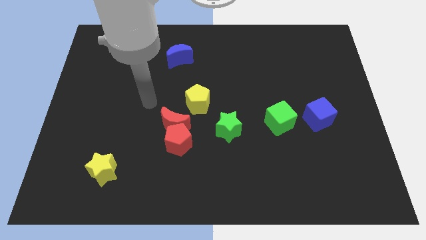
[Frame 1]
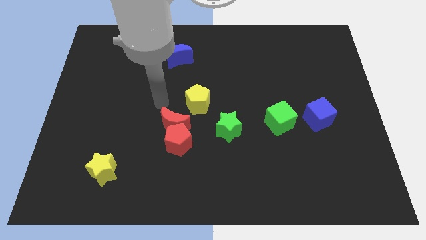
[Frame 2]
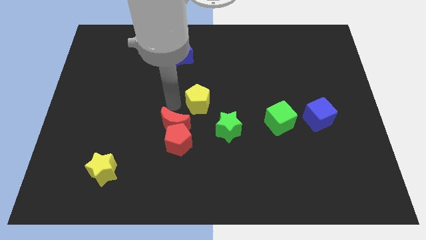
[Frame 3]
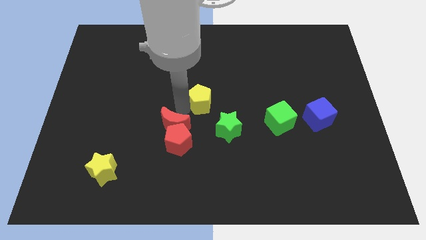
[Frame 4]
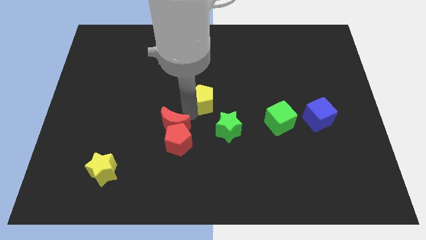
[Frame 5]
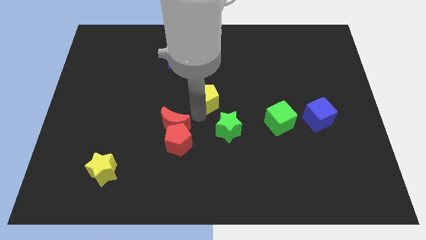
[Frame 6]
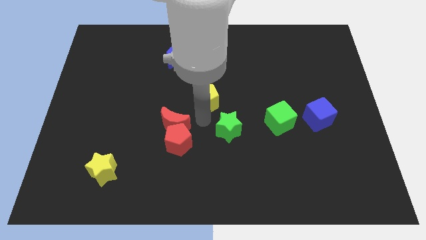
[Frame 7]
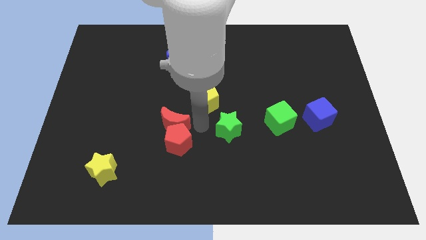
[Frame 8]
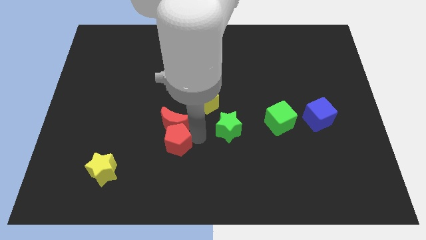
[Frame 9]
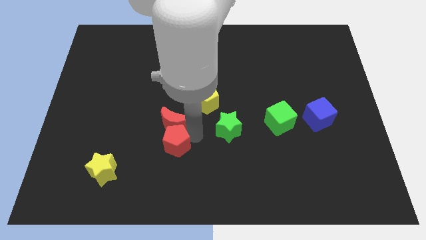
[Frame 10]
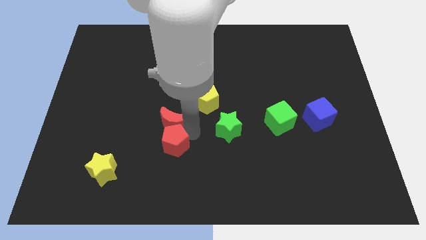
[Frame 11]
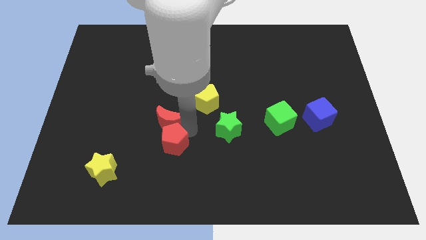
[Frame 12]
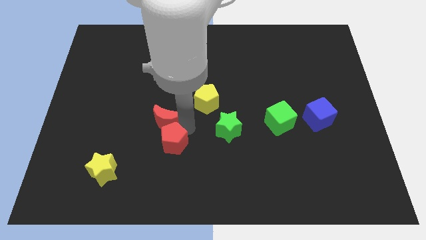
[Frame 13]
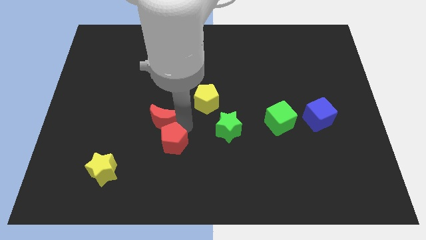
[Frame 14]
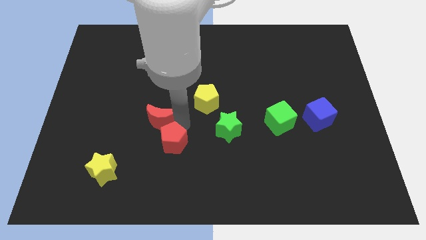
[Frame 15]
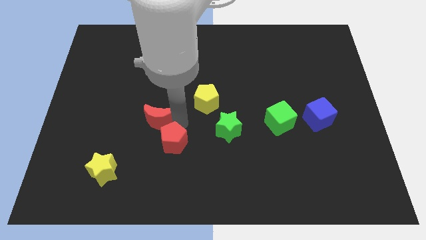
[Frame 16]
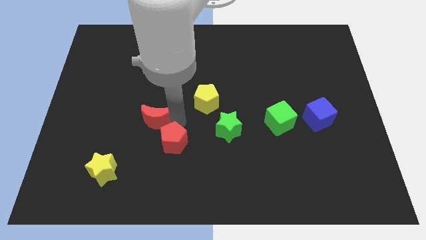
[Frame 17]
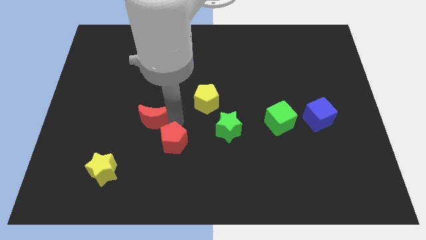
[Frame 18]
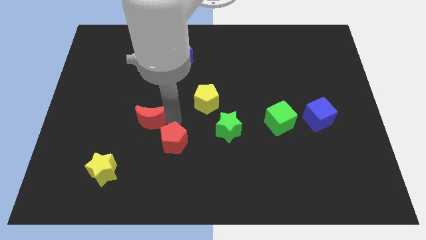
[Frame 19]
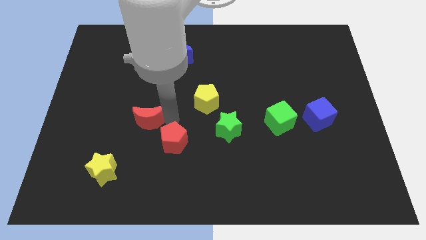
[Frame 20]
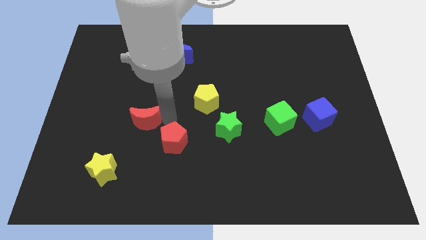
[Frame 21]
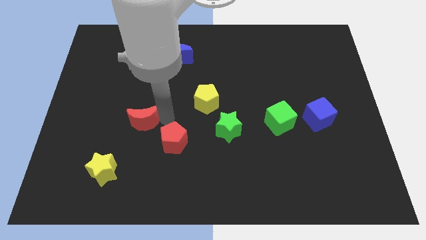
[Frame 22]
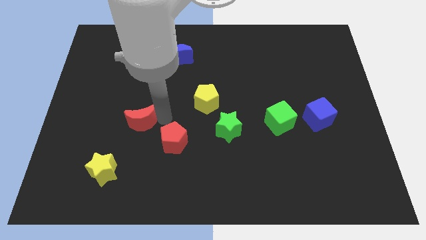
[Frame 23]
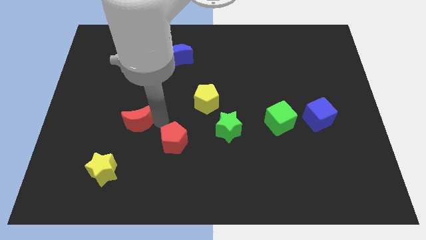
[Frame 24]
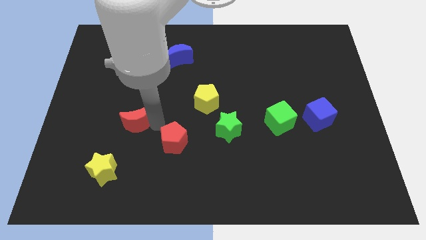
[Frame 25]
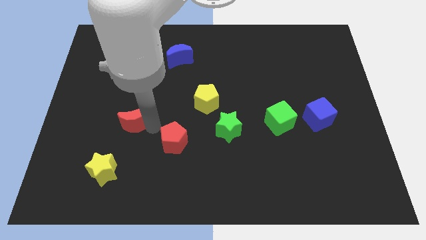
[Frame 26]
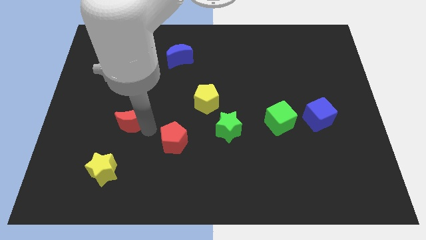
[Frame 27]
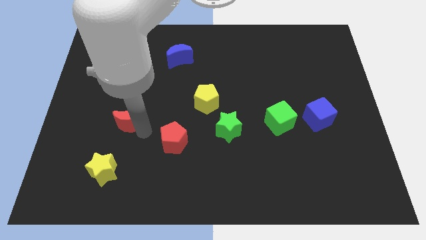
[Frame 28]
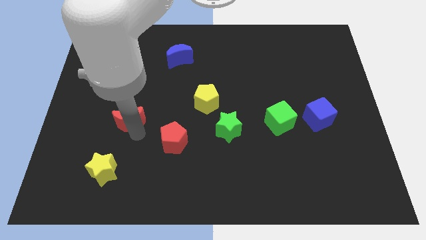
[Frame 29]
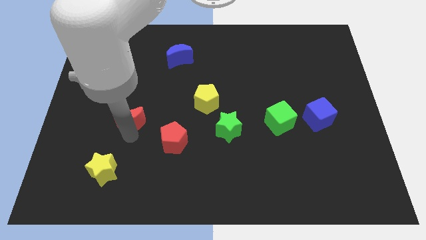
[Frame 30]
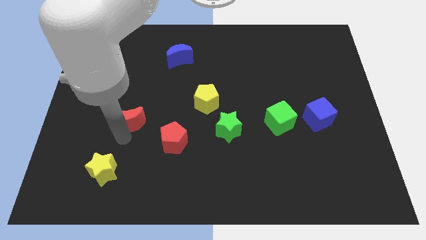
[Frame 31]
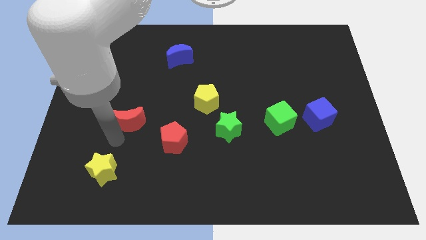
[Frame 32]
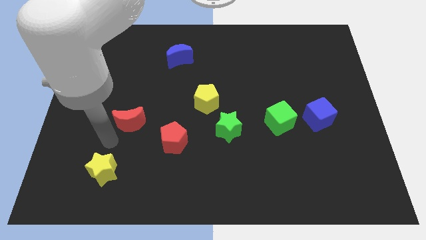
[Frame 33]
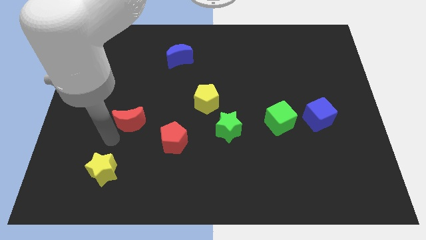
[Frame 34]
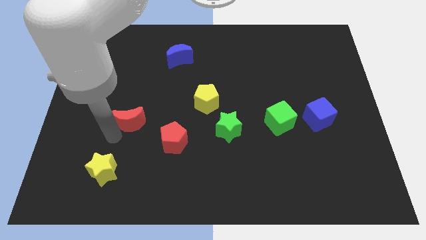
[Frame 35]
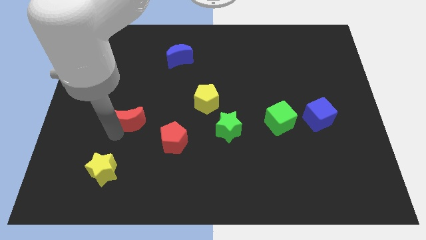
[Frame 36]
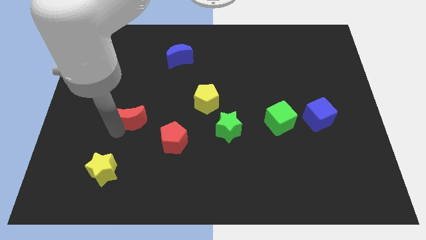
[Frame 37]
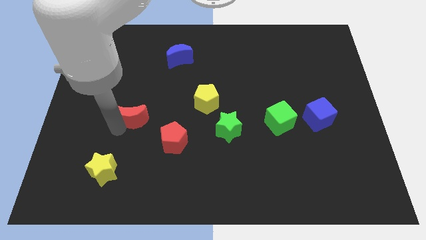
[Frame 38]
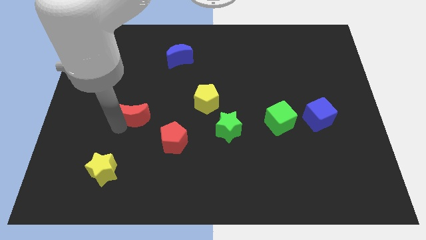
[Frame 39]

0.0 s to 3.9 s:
push the red moon a little bit up and to the left diagonally

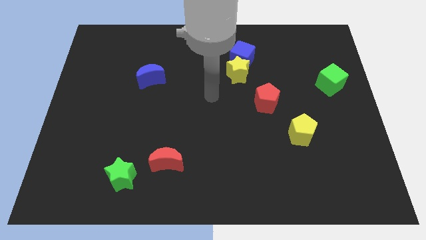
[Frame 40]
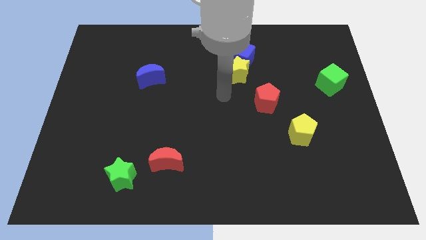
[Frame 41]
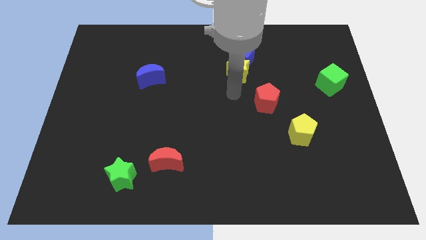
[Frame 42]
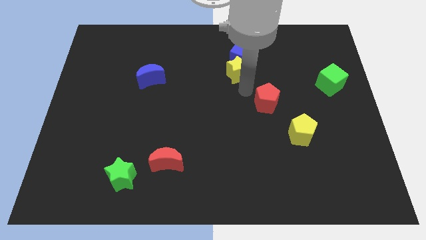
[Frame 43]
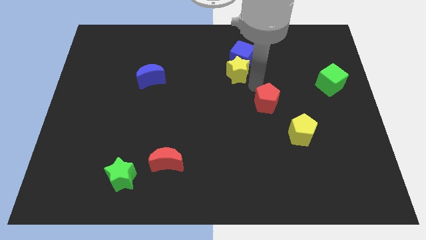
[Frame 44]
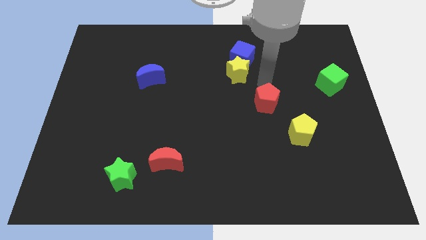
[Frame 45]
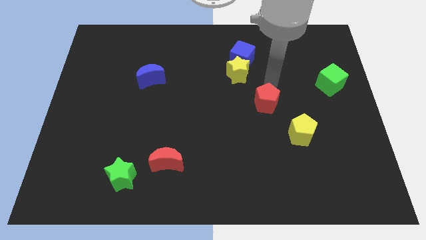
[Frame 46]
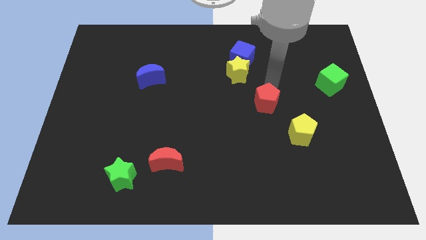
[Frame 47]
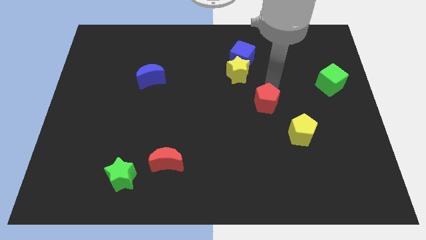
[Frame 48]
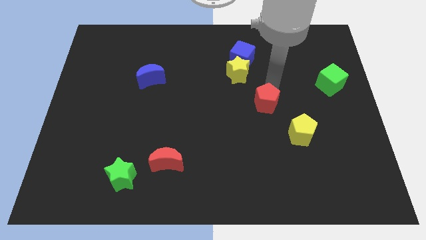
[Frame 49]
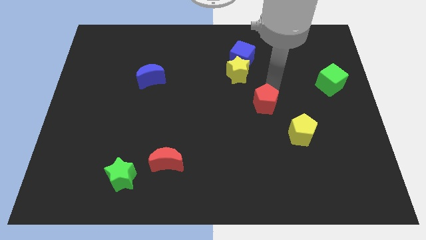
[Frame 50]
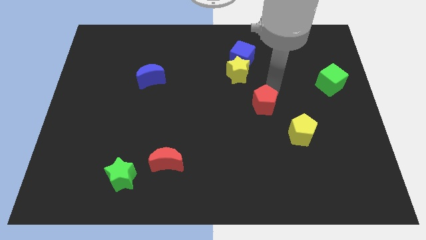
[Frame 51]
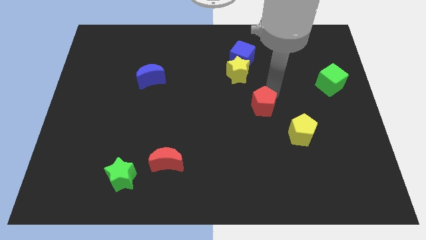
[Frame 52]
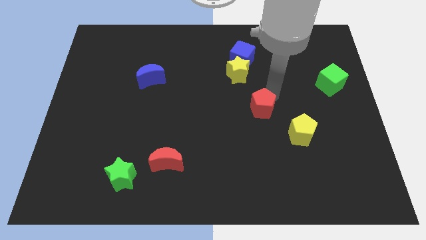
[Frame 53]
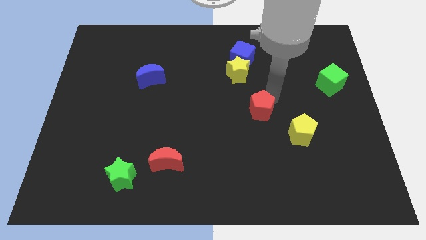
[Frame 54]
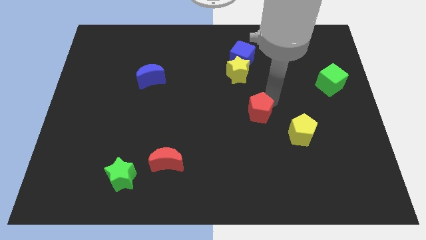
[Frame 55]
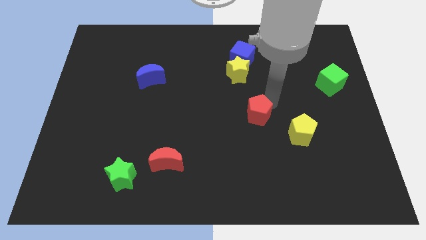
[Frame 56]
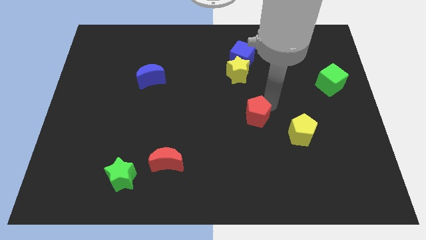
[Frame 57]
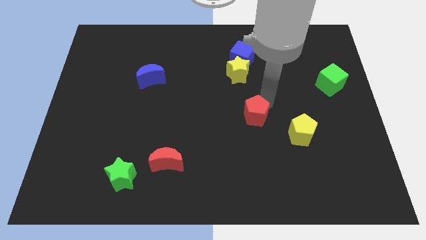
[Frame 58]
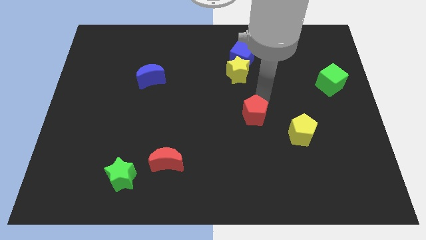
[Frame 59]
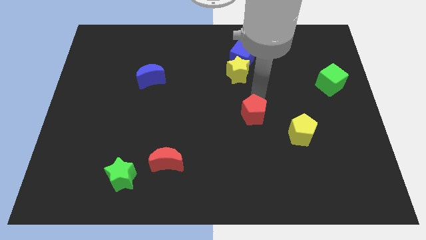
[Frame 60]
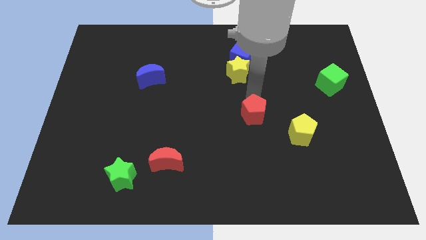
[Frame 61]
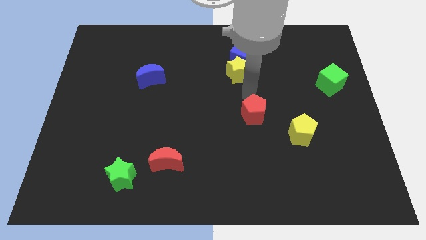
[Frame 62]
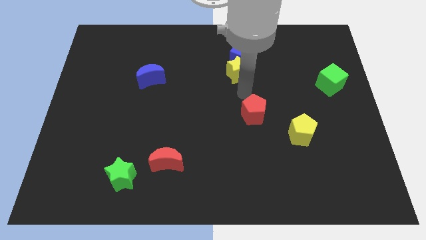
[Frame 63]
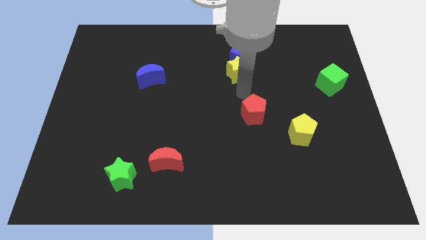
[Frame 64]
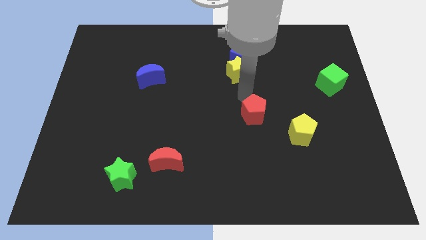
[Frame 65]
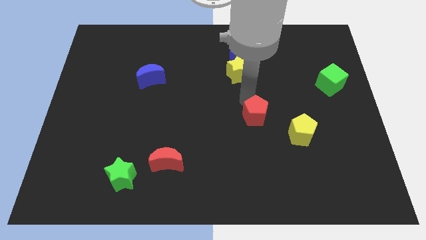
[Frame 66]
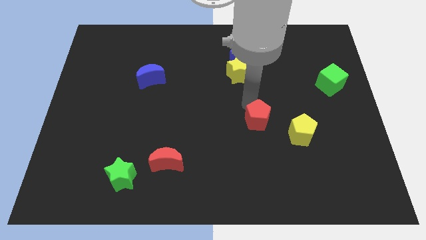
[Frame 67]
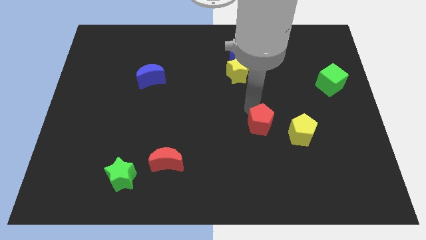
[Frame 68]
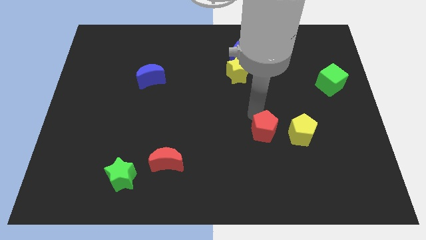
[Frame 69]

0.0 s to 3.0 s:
slightly slide the red pentagon downwards

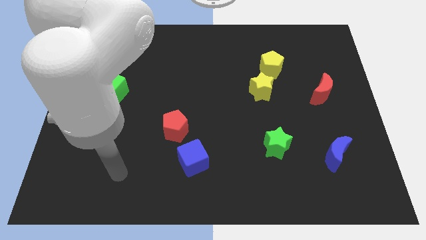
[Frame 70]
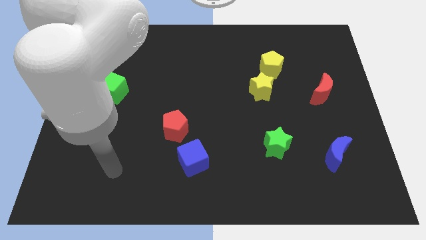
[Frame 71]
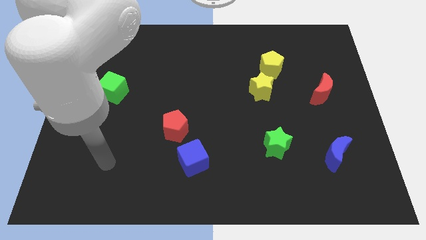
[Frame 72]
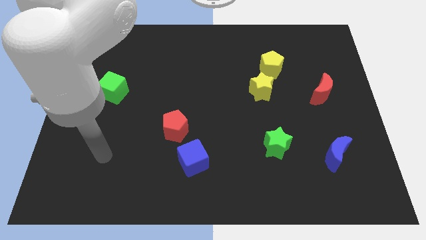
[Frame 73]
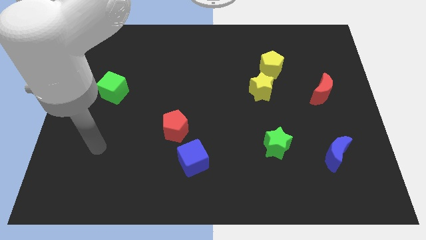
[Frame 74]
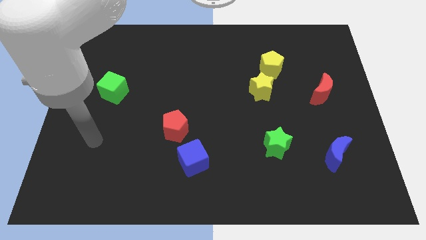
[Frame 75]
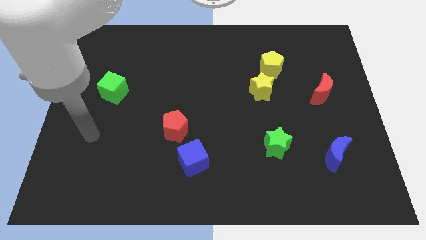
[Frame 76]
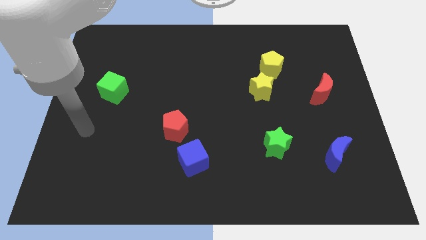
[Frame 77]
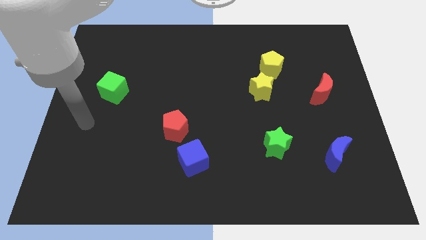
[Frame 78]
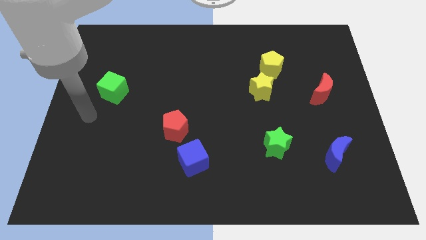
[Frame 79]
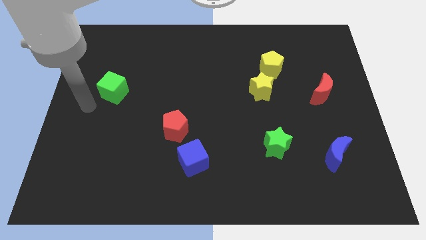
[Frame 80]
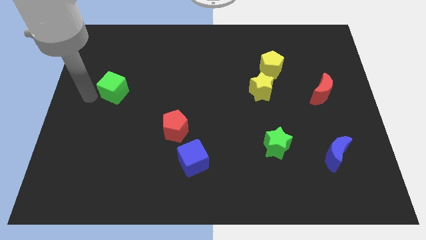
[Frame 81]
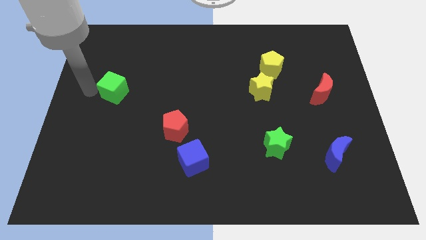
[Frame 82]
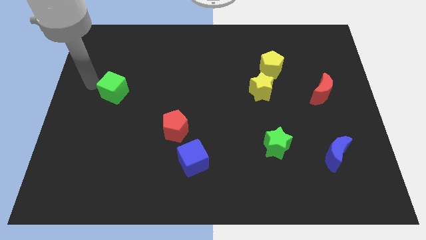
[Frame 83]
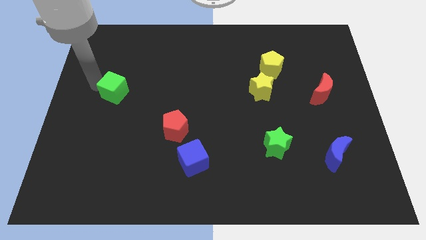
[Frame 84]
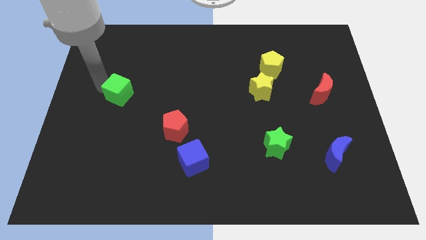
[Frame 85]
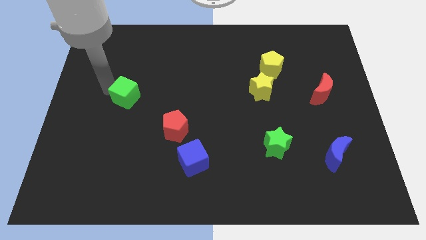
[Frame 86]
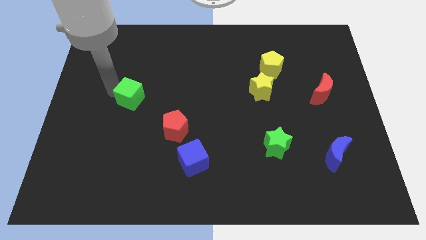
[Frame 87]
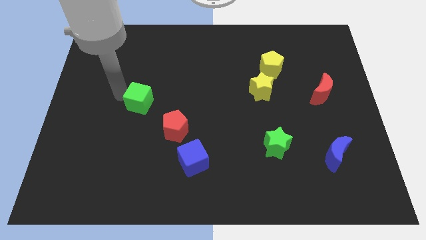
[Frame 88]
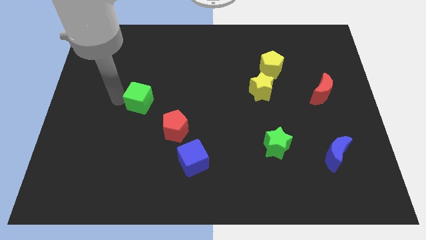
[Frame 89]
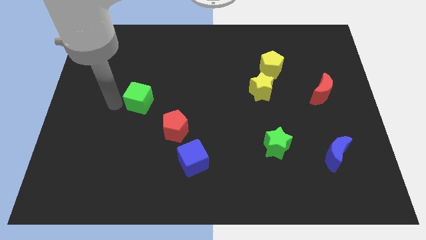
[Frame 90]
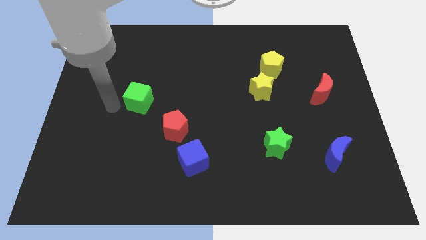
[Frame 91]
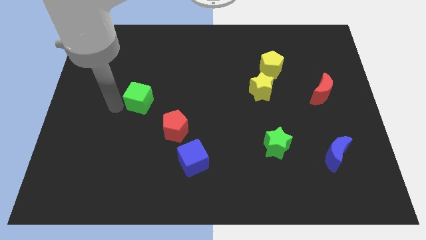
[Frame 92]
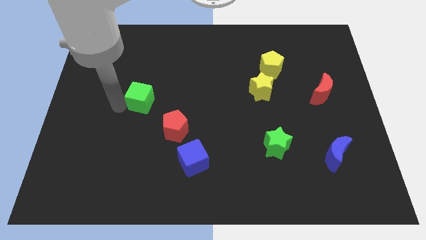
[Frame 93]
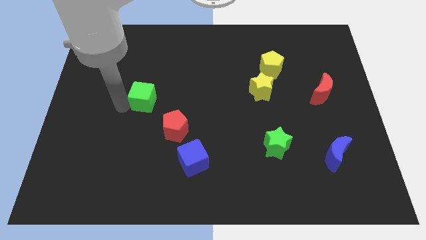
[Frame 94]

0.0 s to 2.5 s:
slightly push the green cube right
